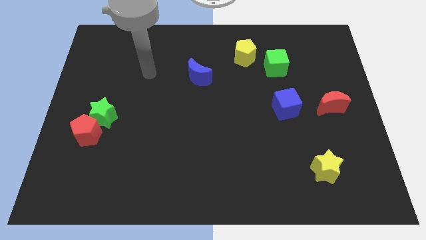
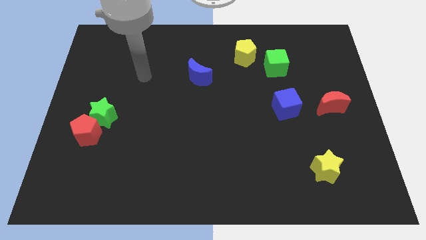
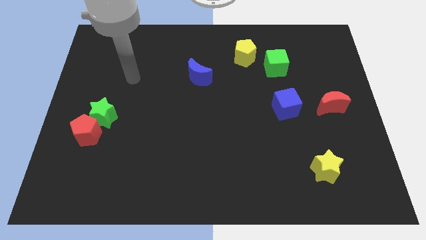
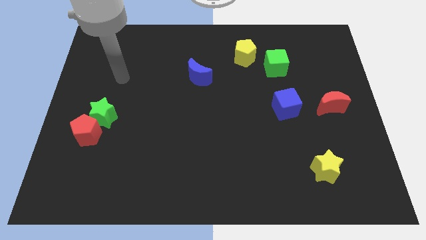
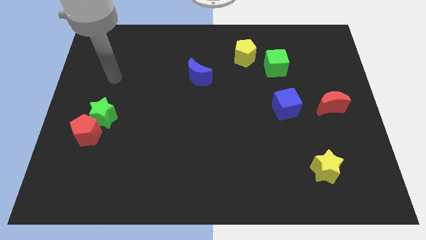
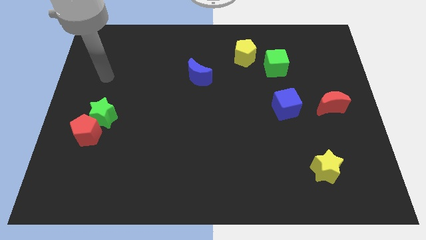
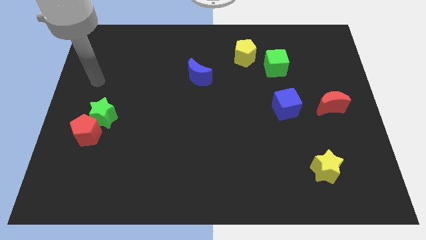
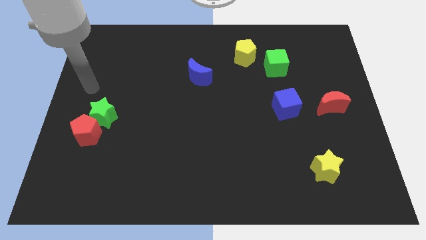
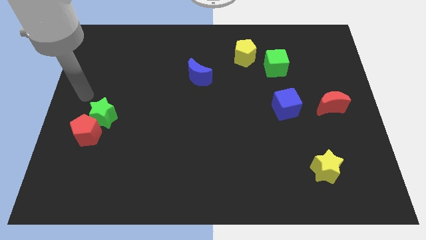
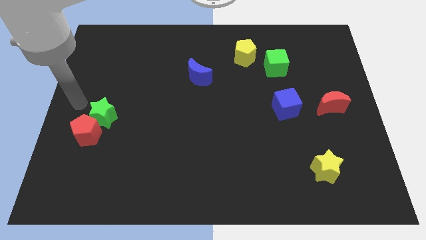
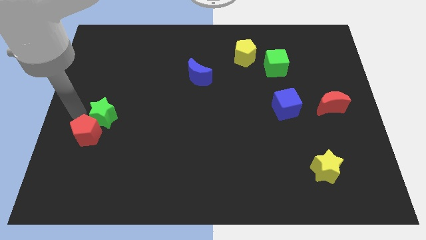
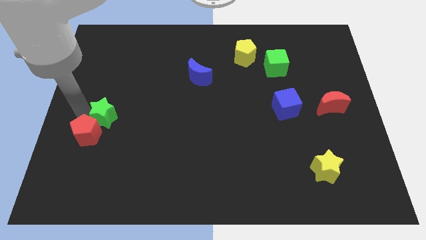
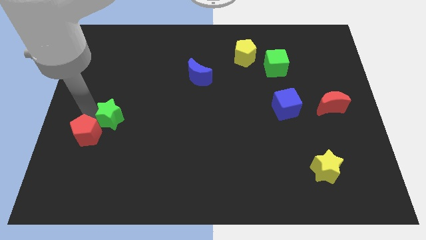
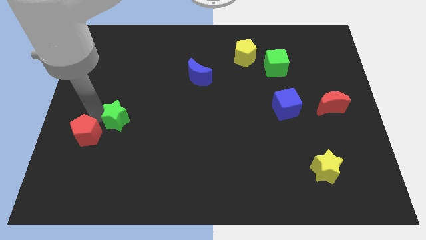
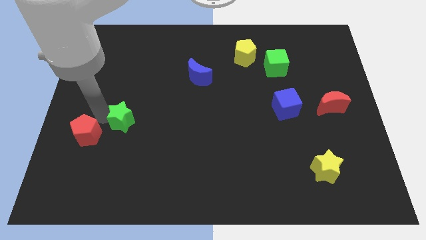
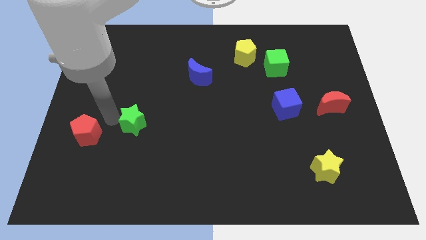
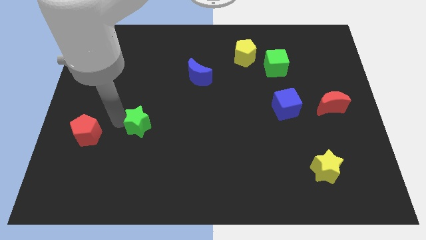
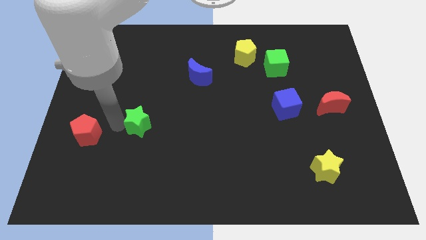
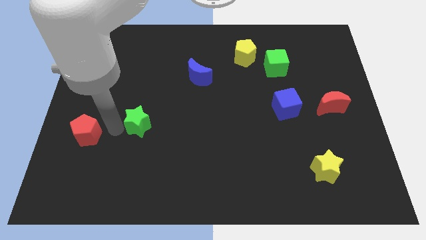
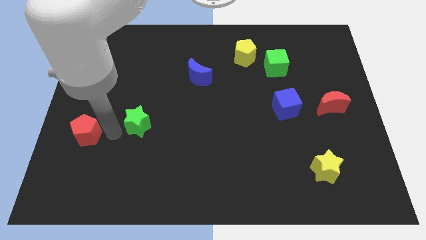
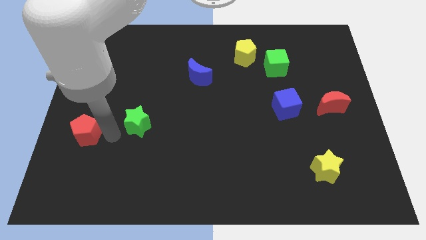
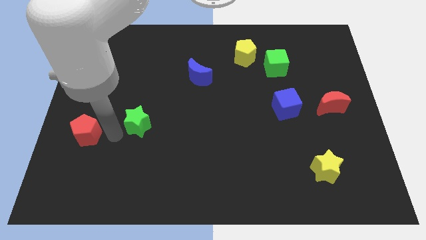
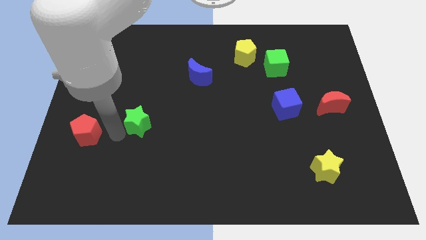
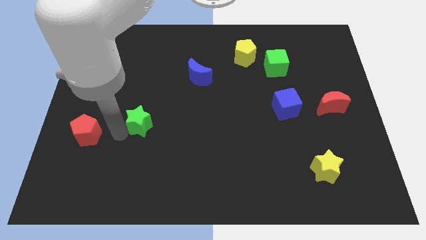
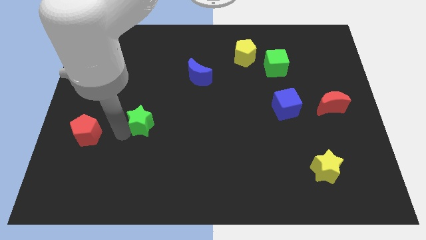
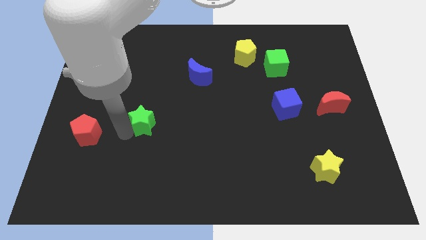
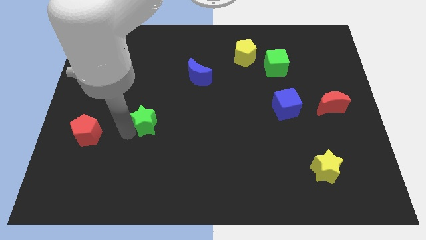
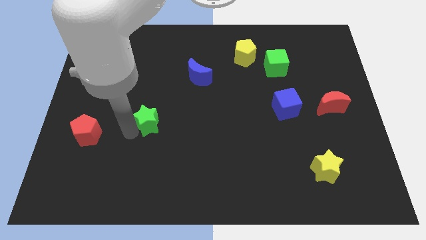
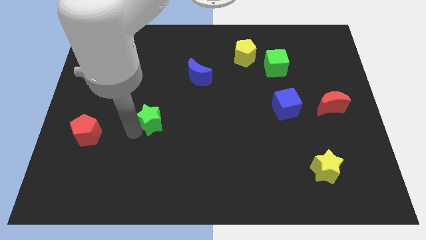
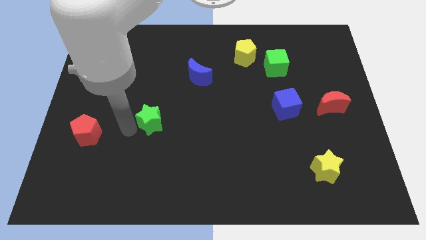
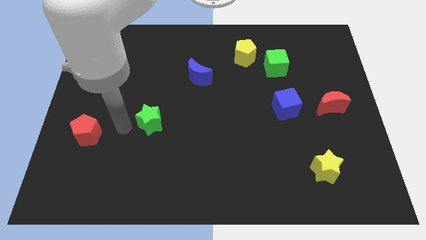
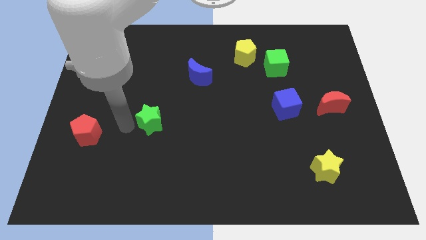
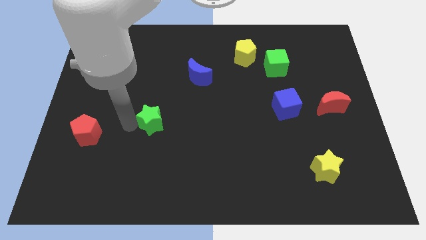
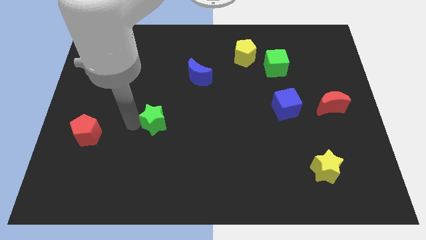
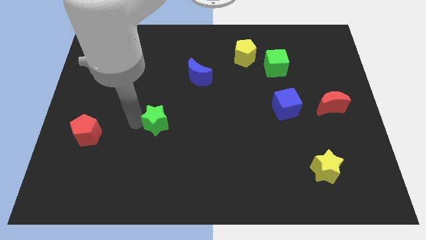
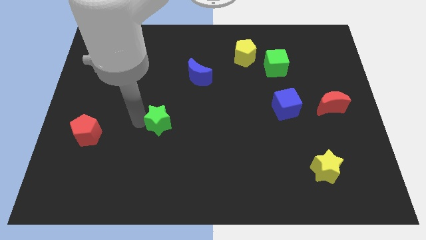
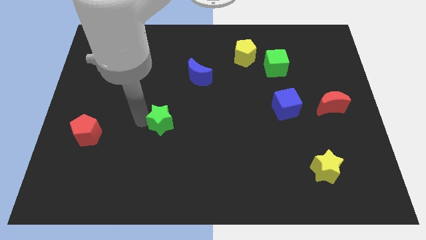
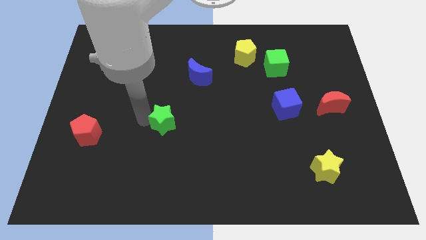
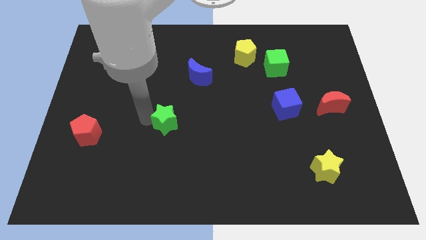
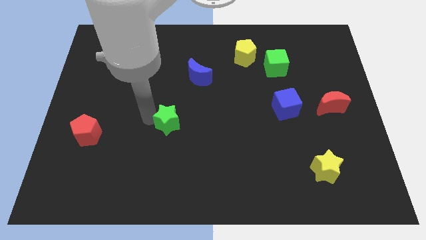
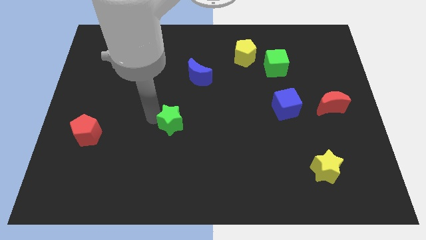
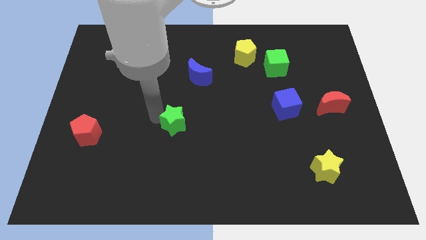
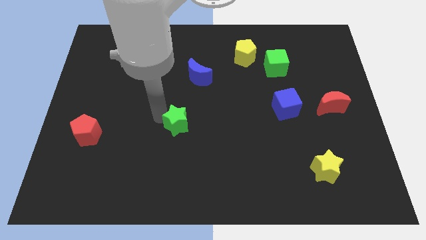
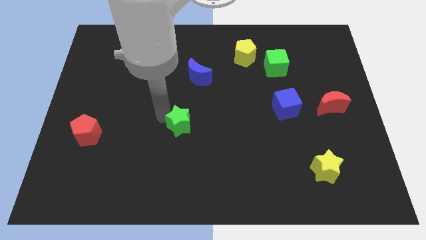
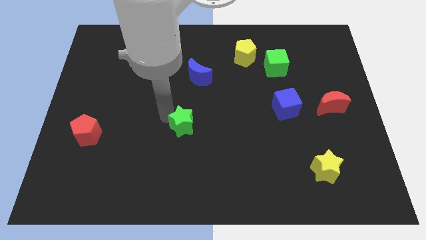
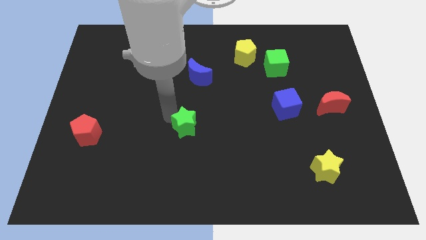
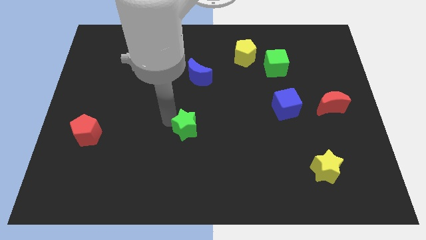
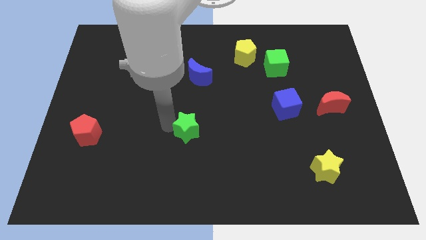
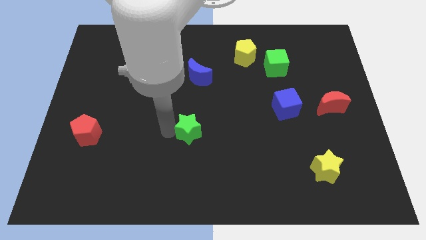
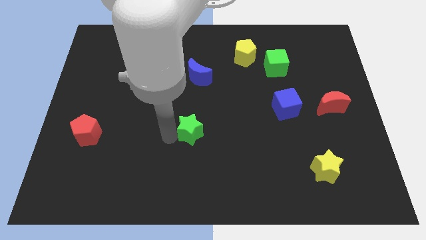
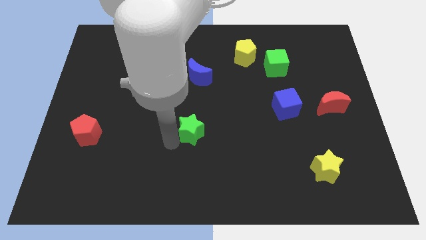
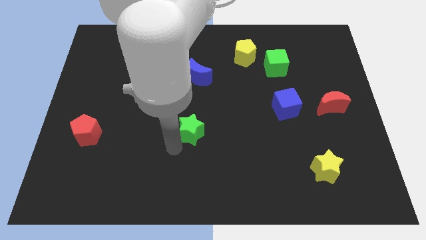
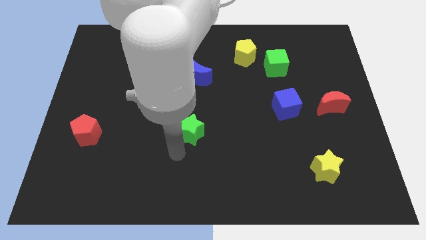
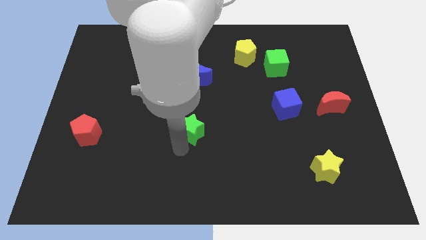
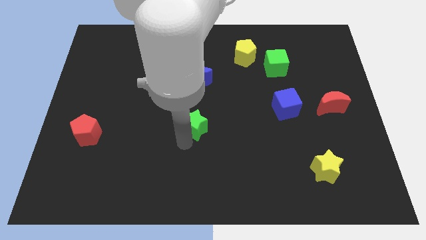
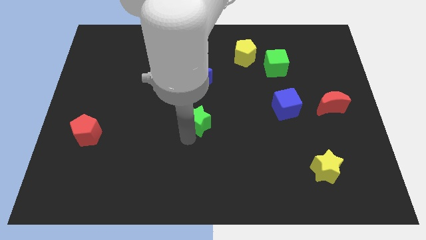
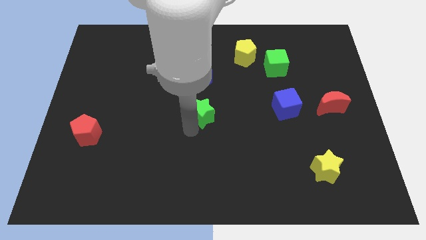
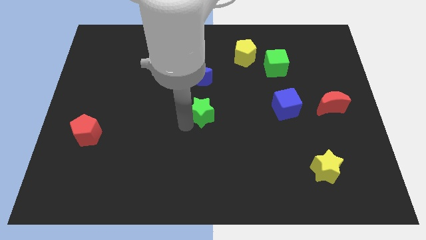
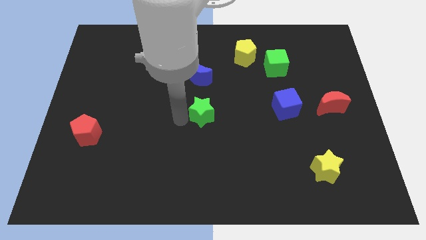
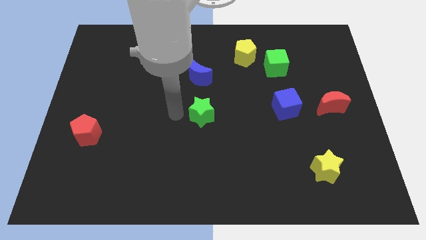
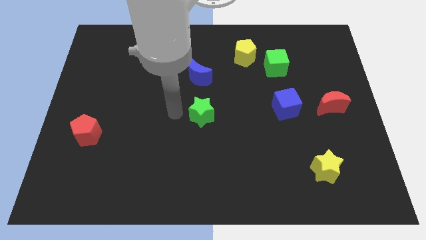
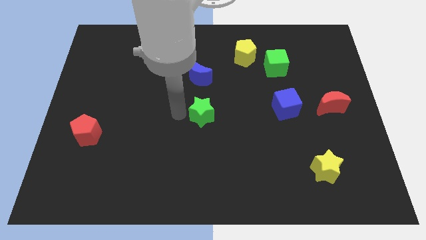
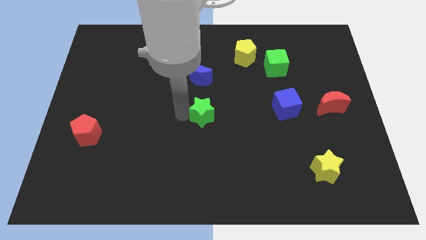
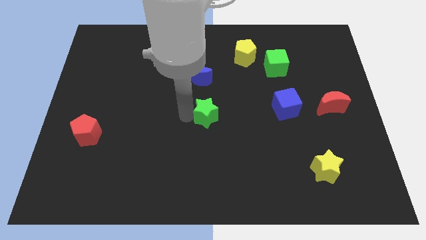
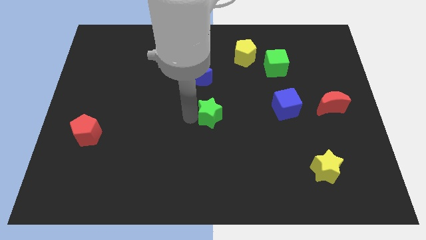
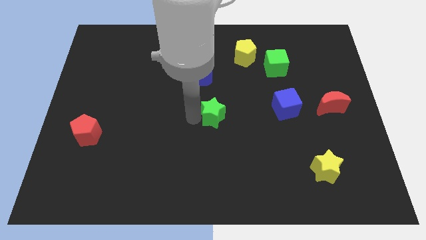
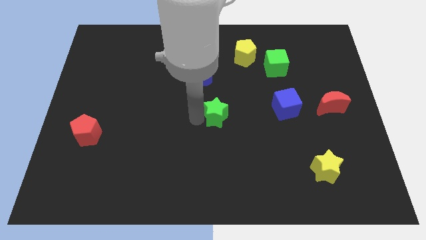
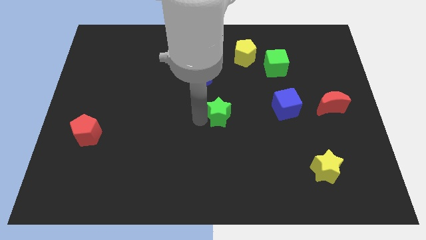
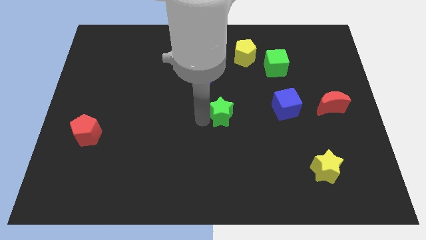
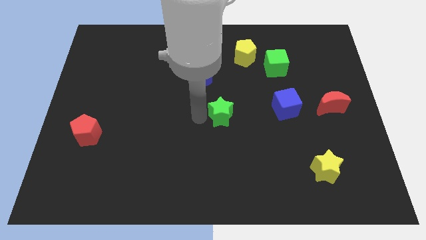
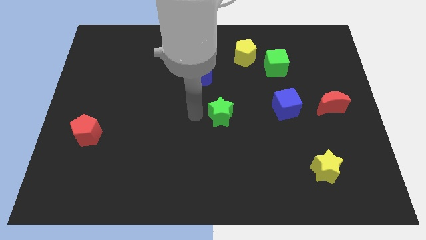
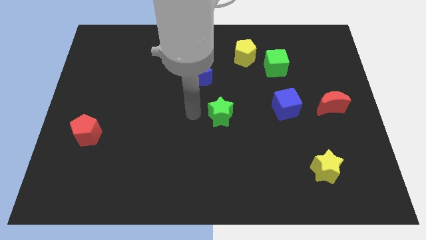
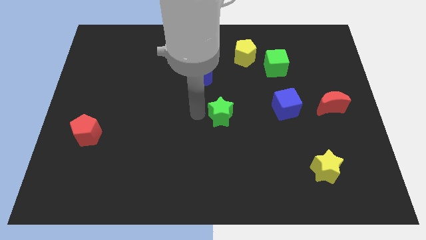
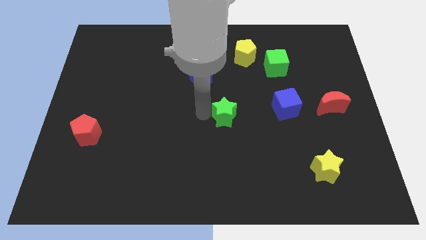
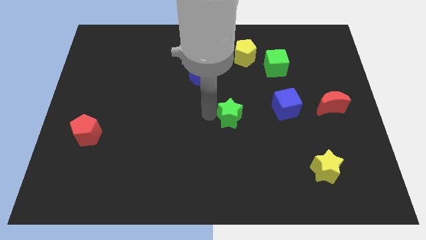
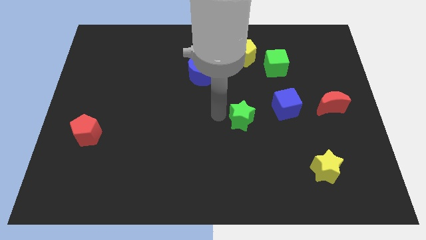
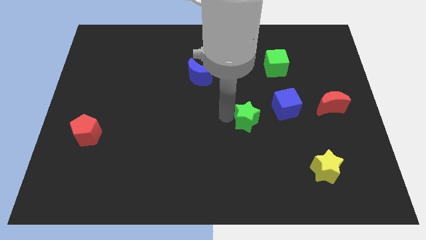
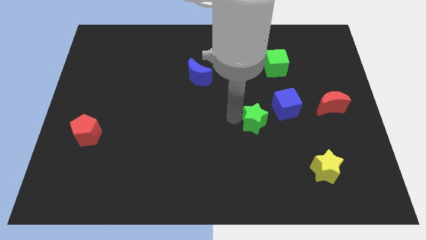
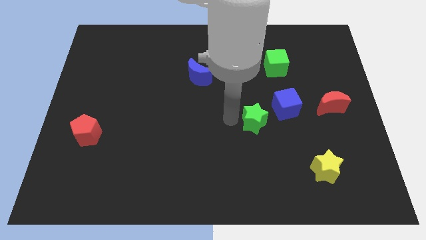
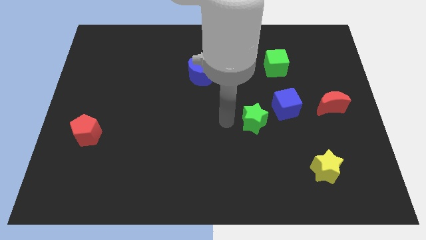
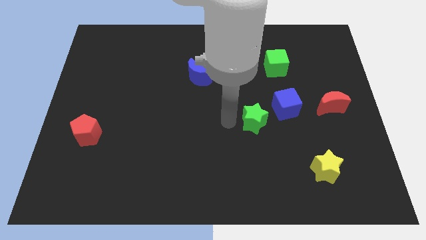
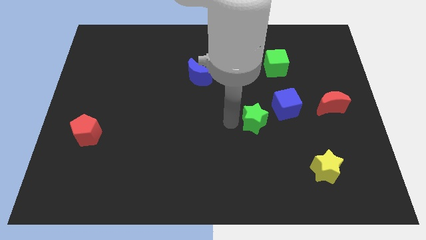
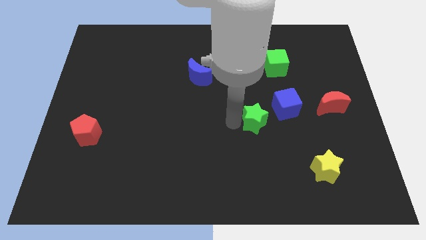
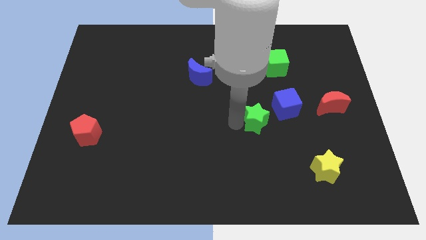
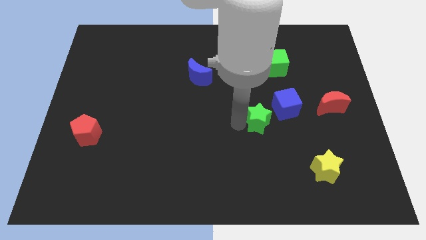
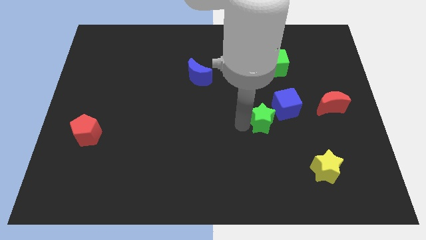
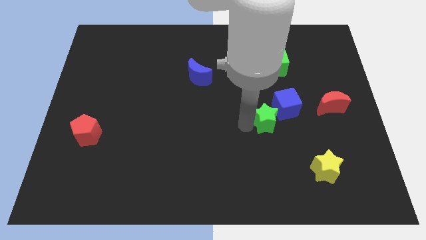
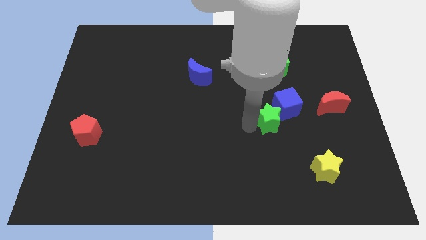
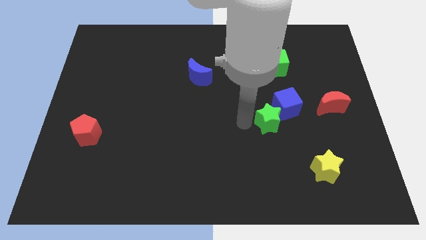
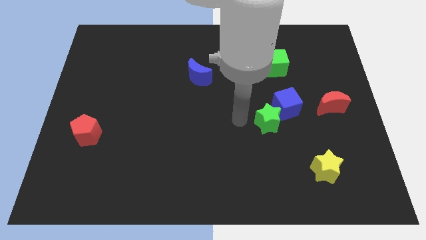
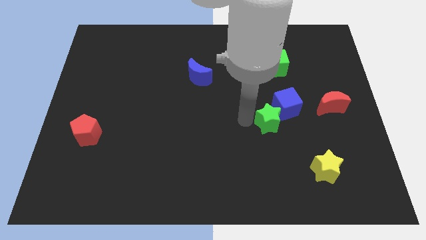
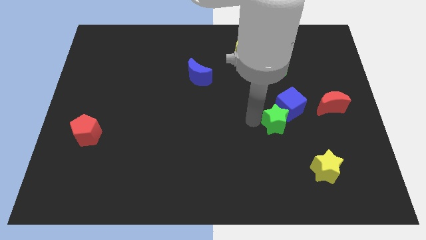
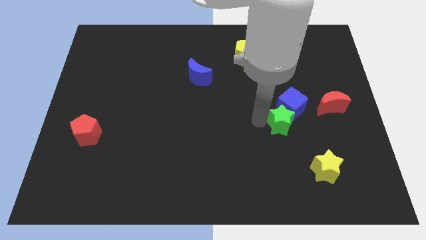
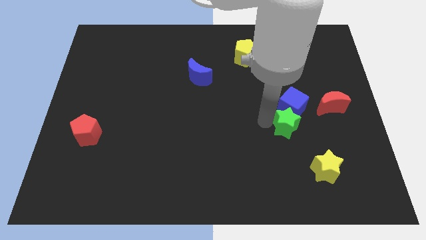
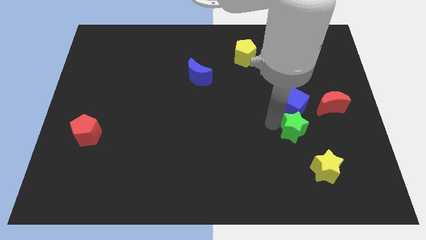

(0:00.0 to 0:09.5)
put the green star to the bottom left side of the red moon
